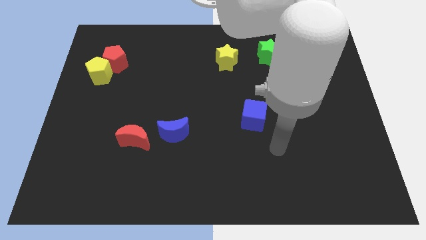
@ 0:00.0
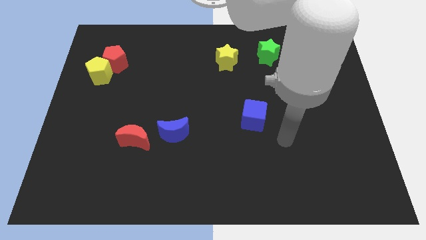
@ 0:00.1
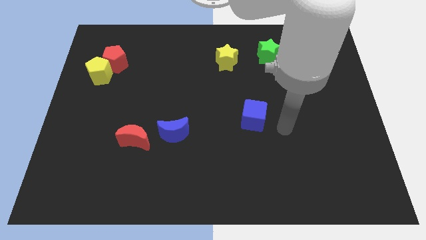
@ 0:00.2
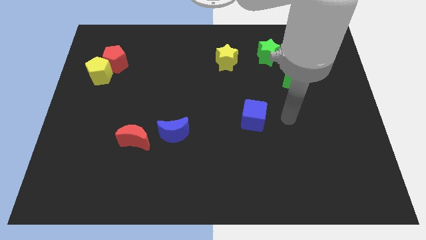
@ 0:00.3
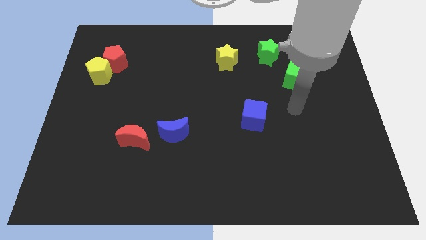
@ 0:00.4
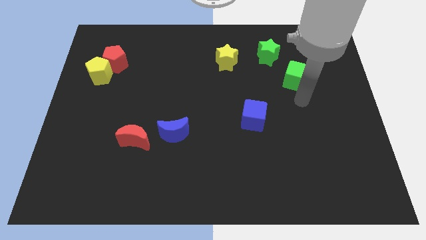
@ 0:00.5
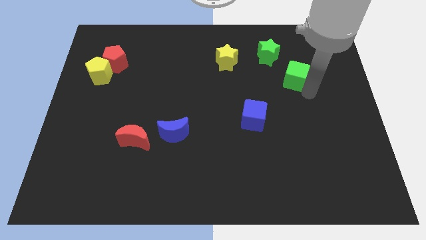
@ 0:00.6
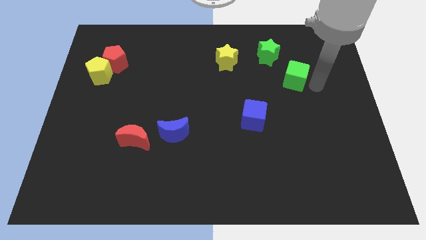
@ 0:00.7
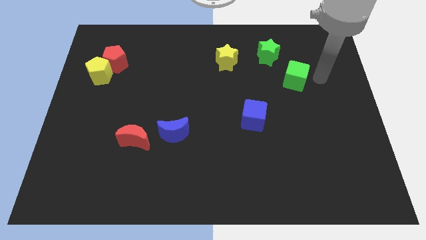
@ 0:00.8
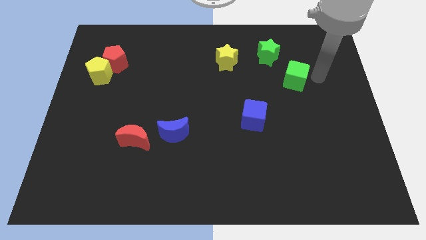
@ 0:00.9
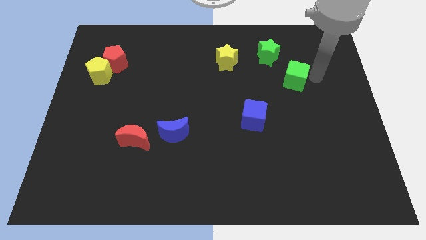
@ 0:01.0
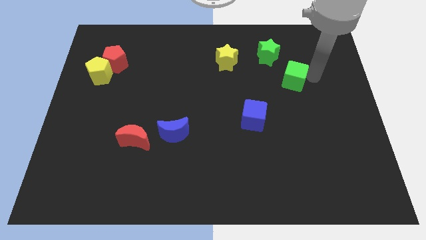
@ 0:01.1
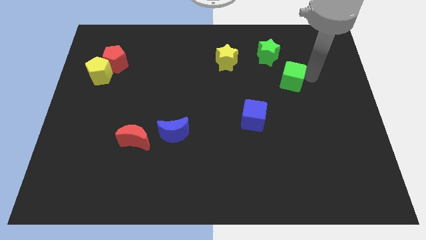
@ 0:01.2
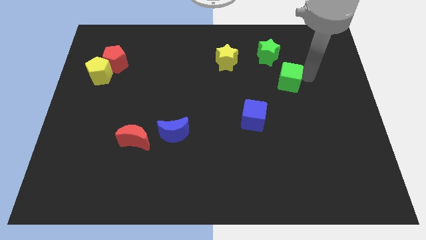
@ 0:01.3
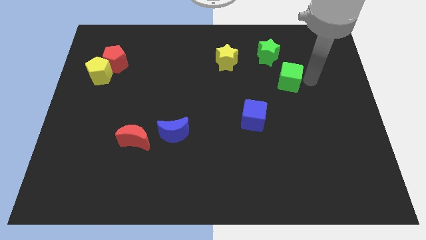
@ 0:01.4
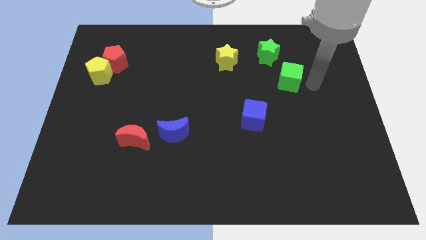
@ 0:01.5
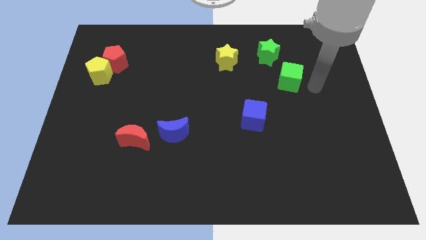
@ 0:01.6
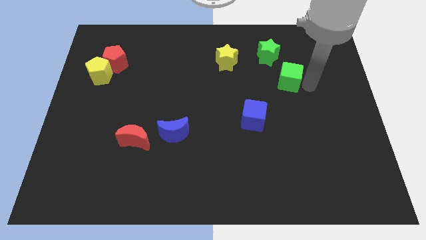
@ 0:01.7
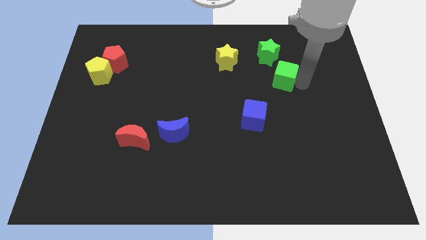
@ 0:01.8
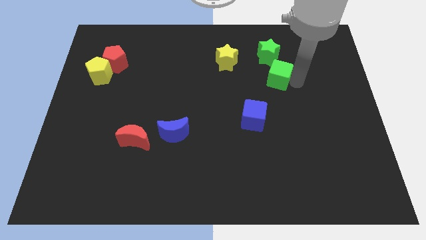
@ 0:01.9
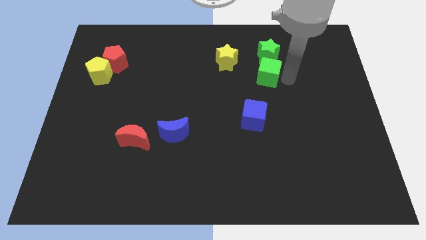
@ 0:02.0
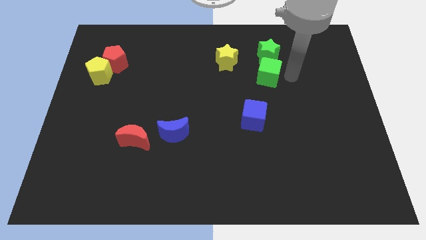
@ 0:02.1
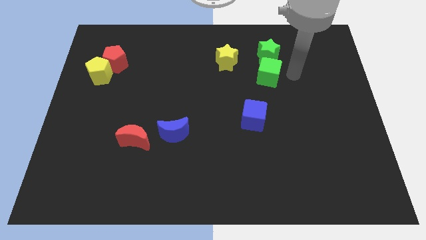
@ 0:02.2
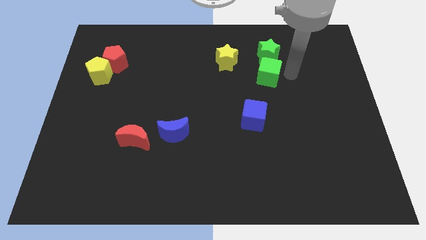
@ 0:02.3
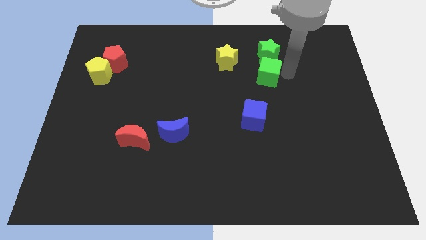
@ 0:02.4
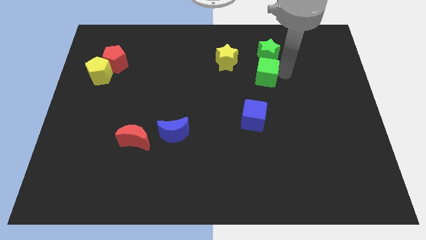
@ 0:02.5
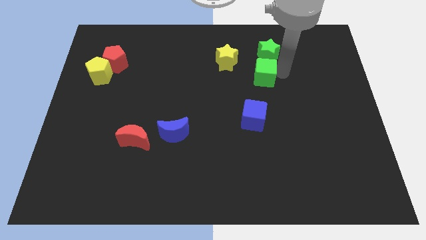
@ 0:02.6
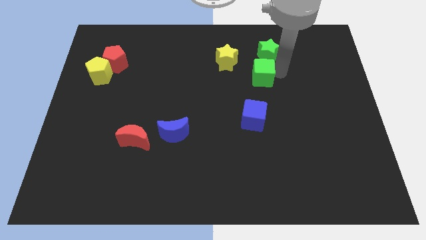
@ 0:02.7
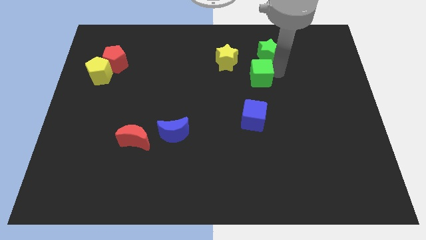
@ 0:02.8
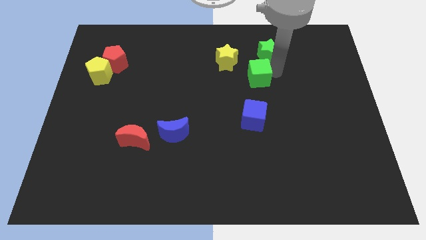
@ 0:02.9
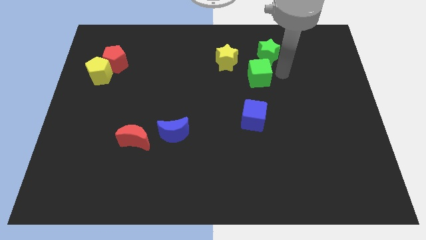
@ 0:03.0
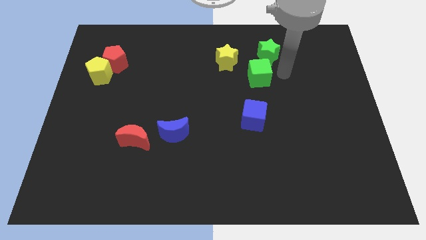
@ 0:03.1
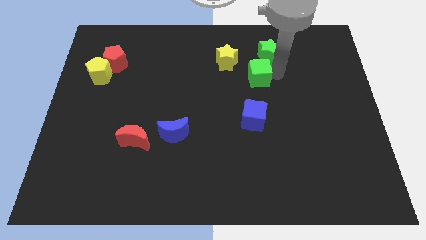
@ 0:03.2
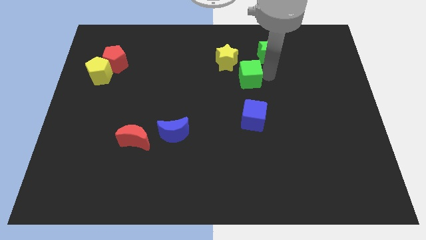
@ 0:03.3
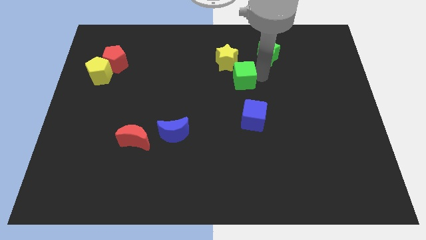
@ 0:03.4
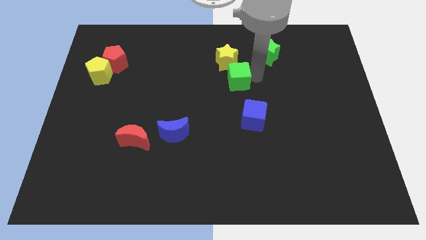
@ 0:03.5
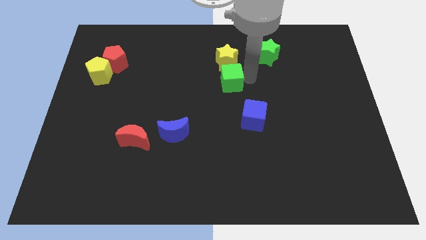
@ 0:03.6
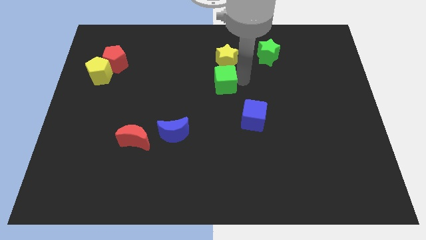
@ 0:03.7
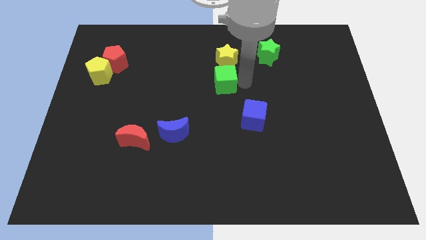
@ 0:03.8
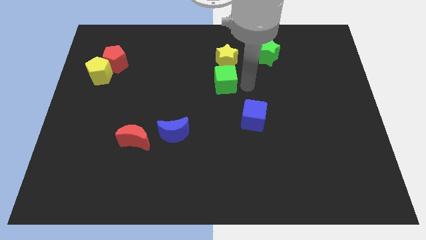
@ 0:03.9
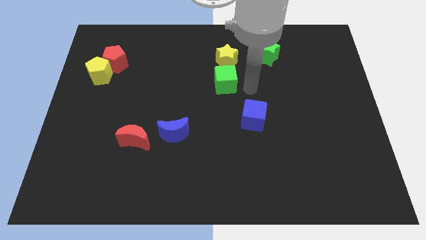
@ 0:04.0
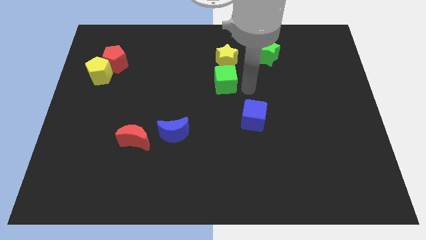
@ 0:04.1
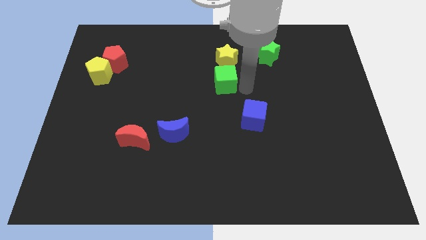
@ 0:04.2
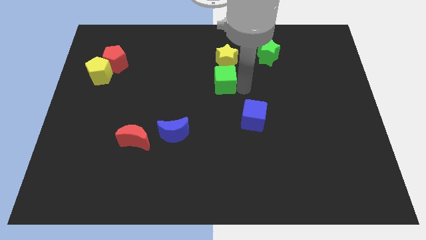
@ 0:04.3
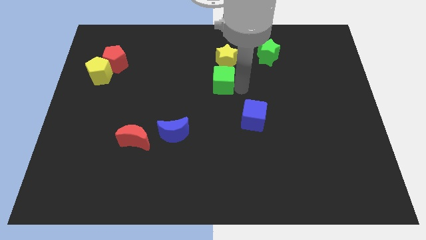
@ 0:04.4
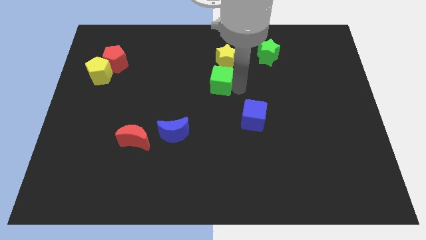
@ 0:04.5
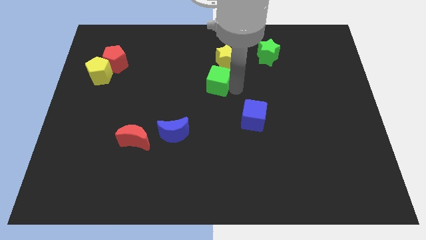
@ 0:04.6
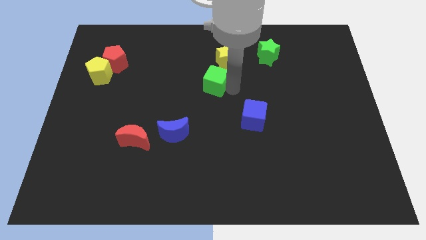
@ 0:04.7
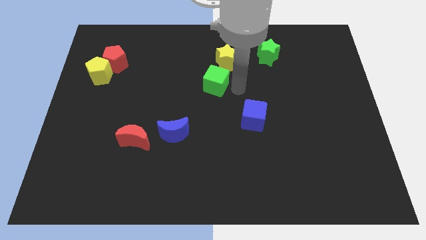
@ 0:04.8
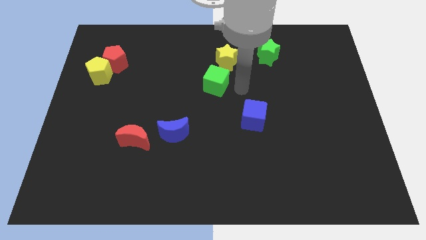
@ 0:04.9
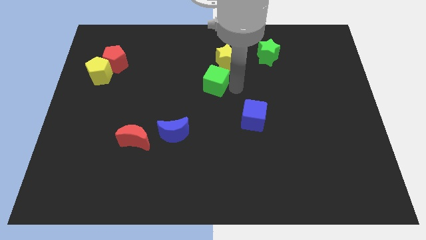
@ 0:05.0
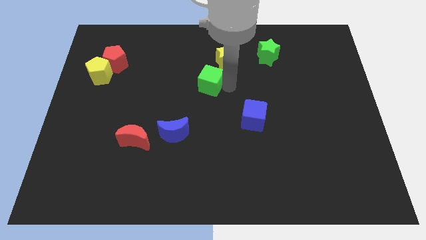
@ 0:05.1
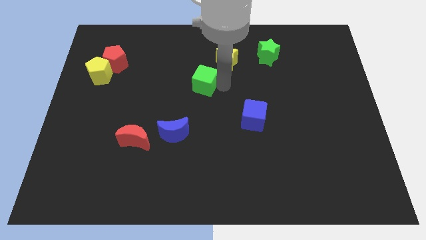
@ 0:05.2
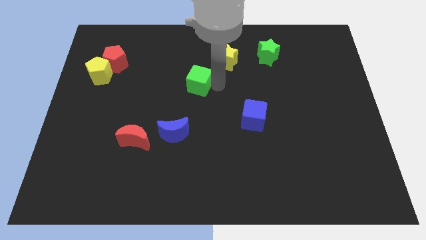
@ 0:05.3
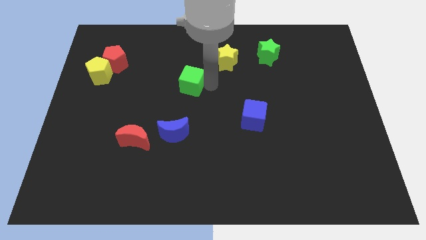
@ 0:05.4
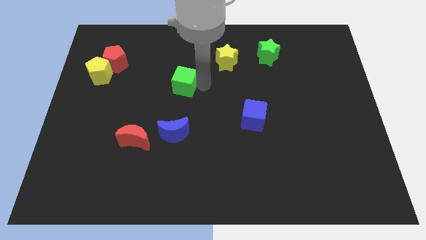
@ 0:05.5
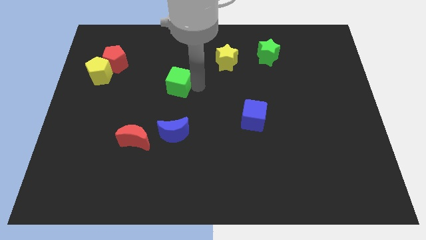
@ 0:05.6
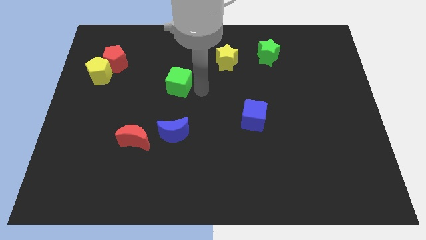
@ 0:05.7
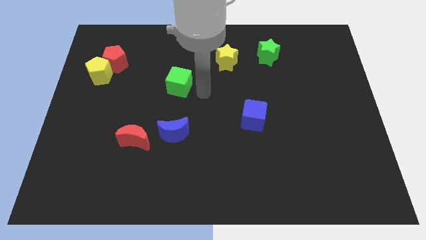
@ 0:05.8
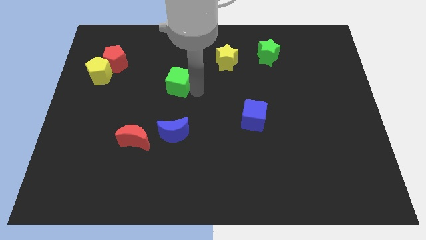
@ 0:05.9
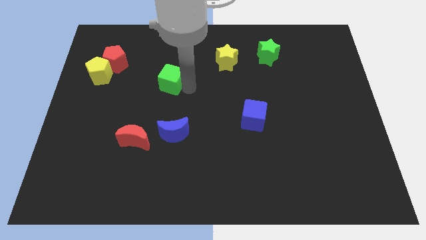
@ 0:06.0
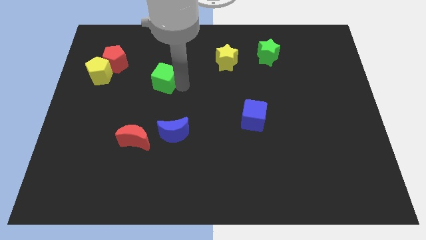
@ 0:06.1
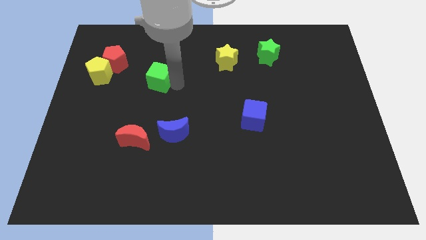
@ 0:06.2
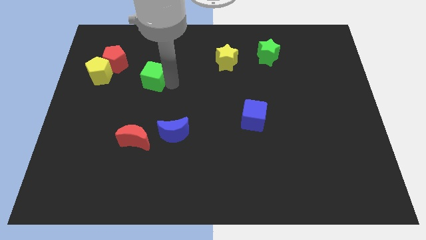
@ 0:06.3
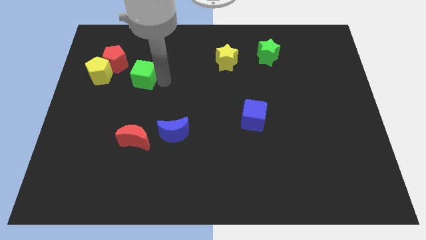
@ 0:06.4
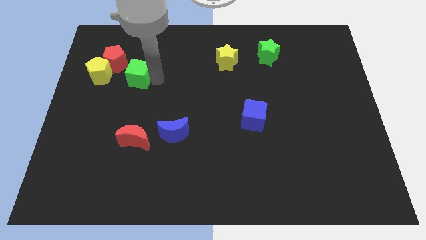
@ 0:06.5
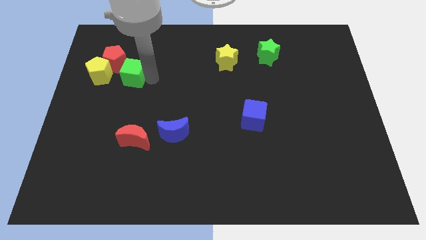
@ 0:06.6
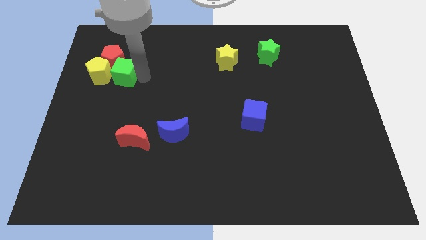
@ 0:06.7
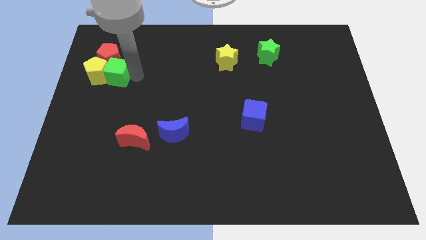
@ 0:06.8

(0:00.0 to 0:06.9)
push the green cube next to the yellow pentagon
